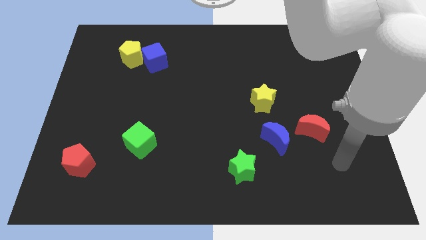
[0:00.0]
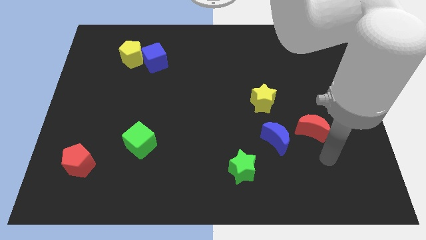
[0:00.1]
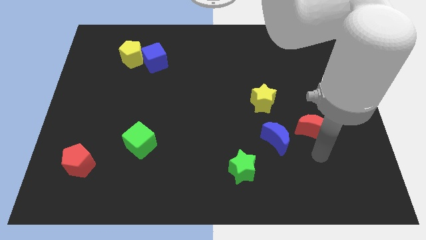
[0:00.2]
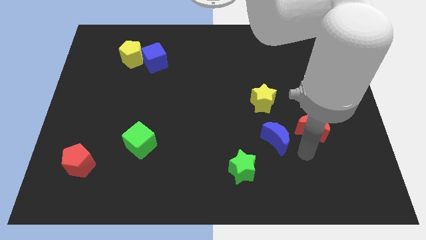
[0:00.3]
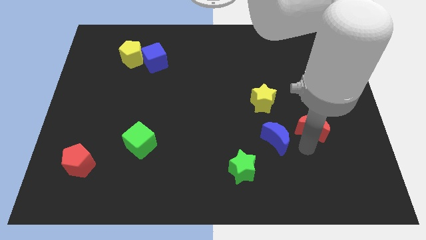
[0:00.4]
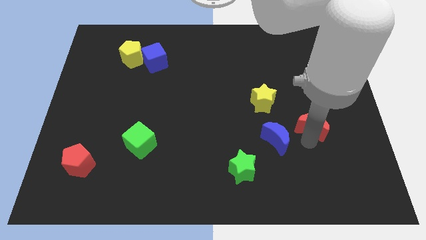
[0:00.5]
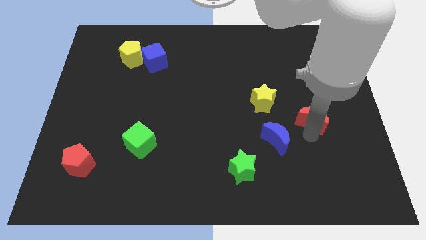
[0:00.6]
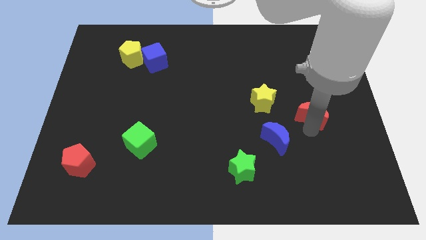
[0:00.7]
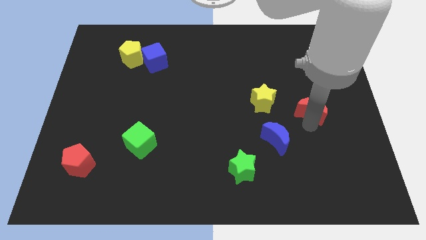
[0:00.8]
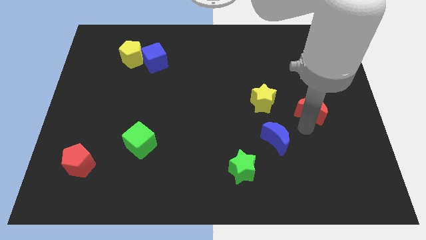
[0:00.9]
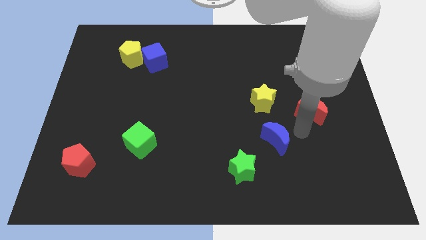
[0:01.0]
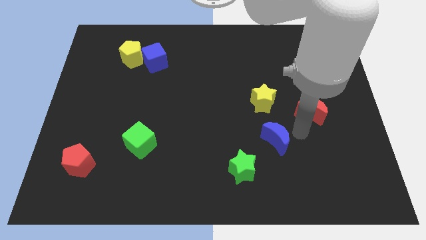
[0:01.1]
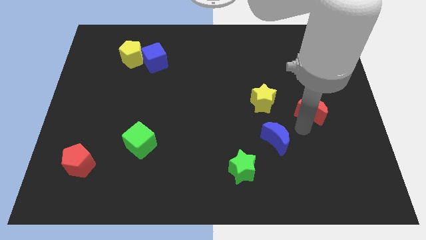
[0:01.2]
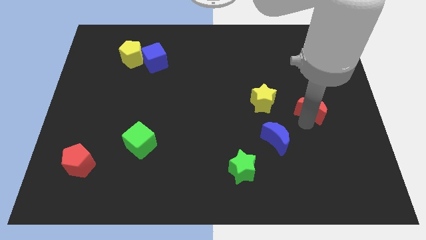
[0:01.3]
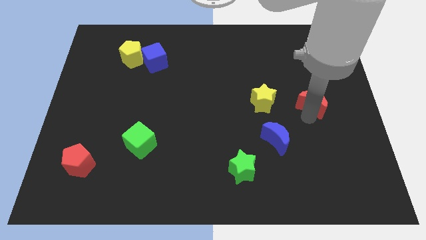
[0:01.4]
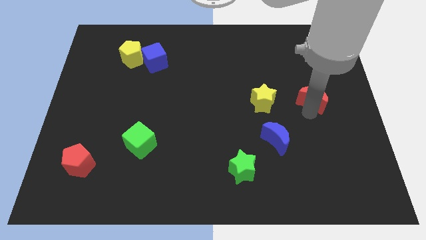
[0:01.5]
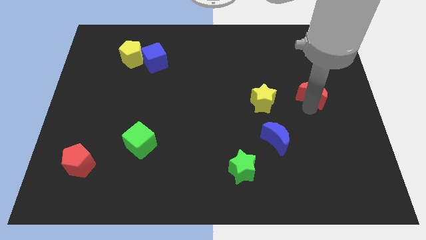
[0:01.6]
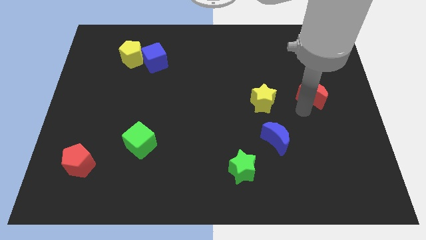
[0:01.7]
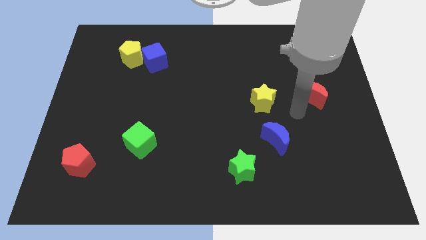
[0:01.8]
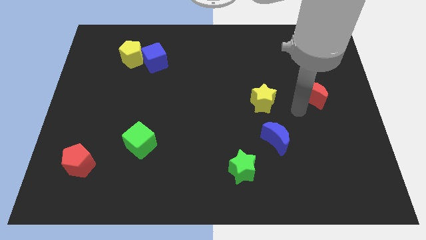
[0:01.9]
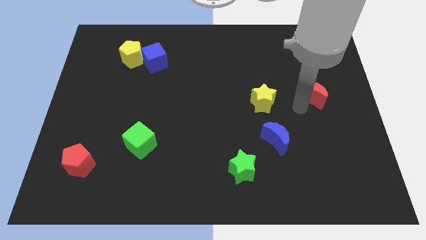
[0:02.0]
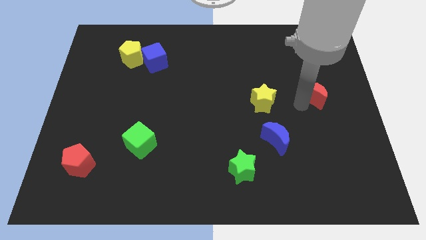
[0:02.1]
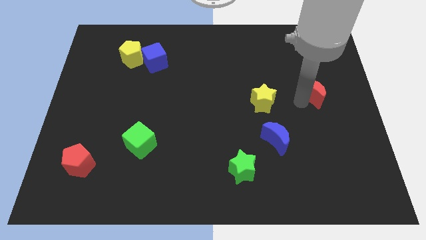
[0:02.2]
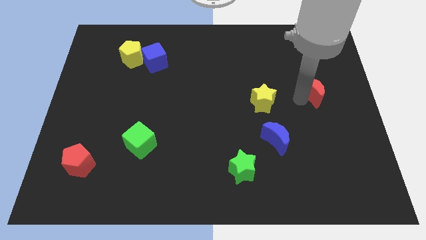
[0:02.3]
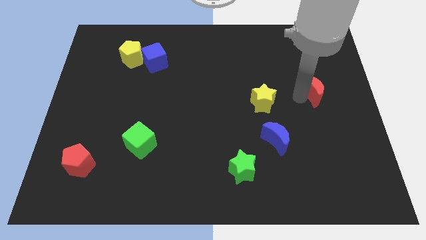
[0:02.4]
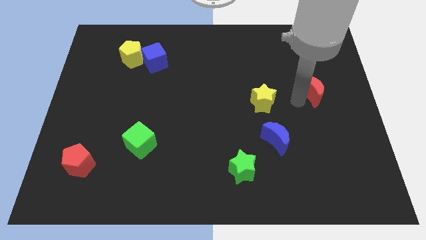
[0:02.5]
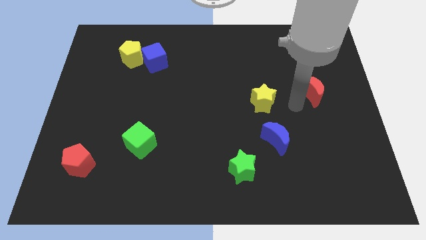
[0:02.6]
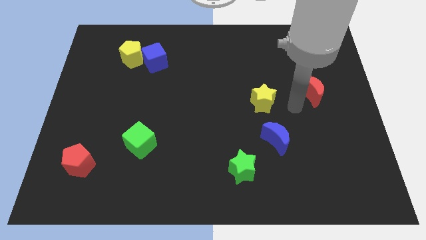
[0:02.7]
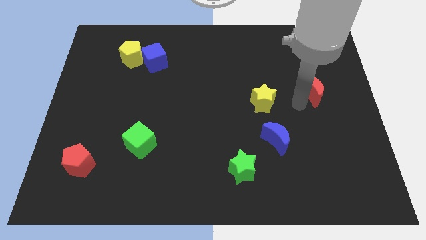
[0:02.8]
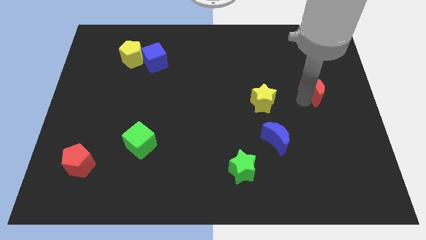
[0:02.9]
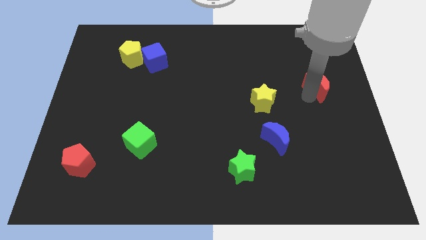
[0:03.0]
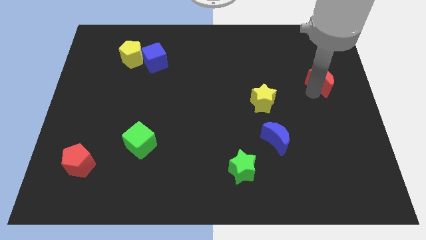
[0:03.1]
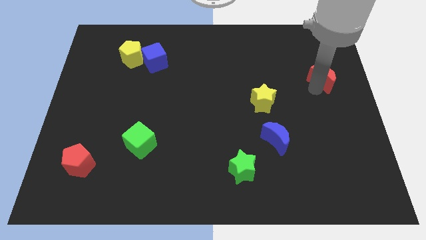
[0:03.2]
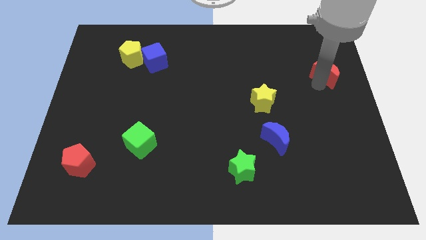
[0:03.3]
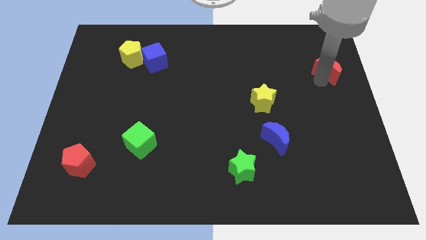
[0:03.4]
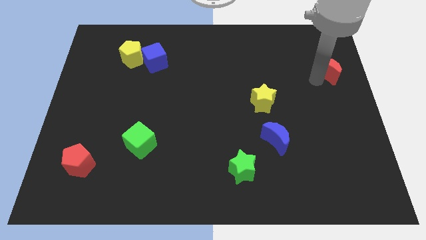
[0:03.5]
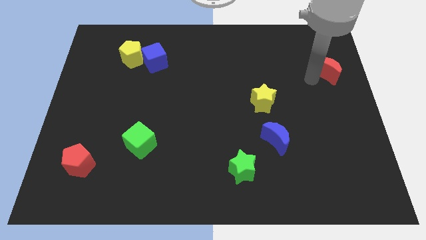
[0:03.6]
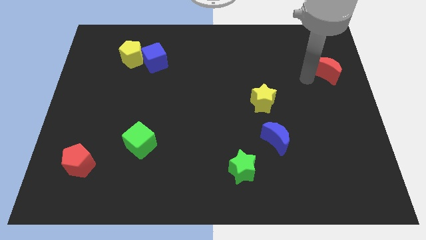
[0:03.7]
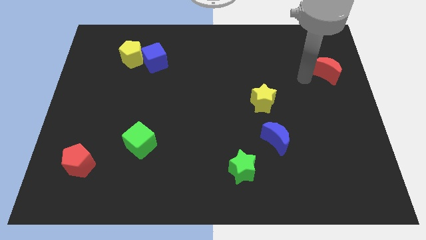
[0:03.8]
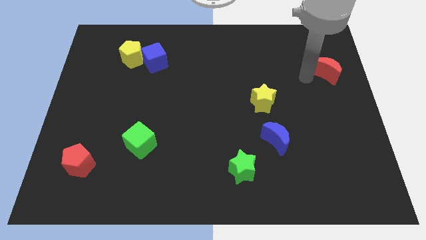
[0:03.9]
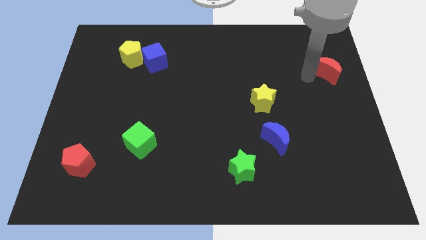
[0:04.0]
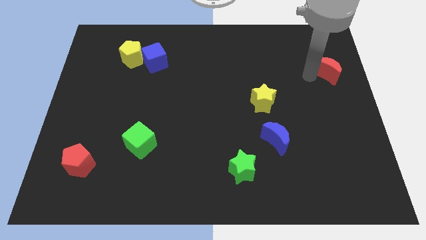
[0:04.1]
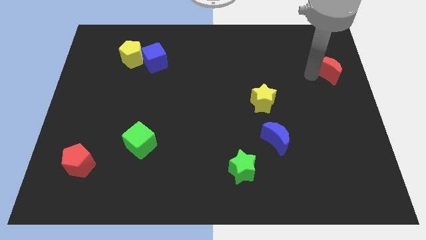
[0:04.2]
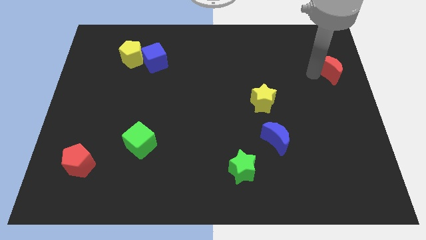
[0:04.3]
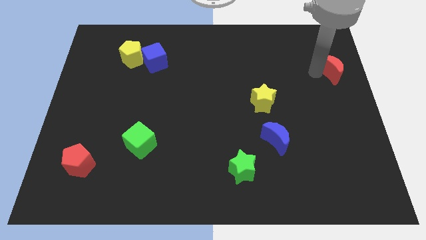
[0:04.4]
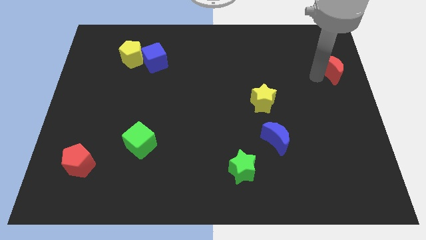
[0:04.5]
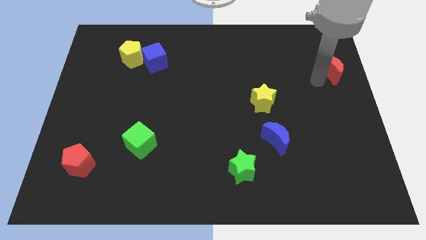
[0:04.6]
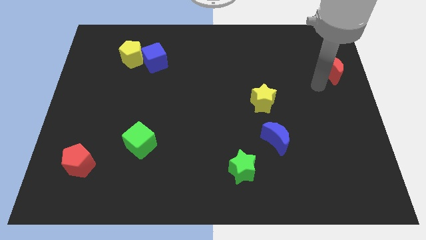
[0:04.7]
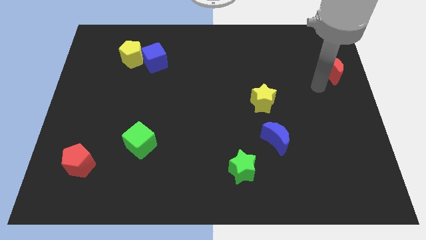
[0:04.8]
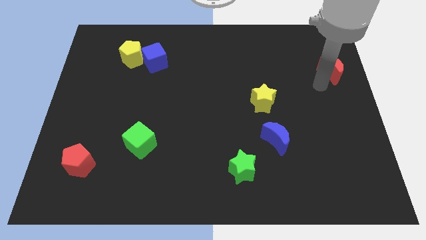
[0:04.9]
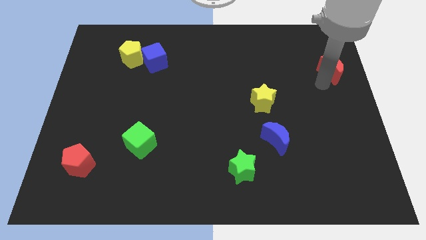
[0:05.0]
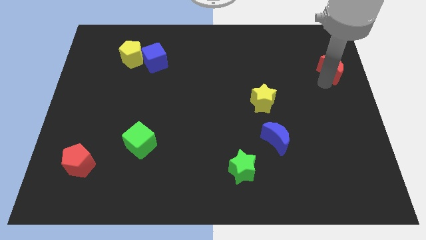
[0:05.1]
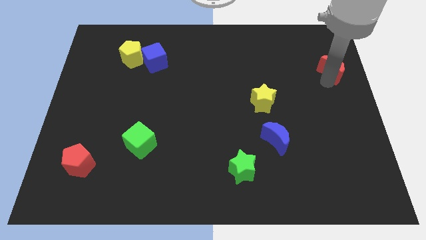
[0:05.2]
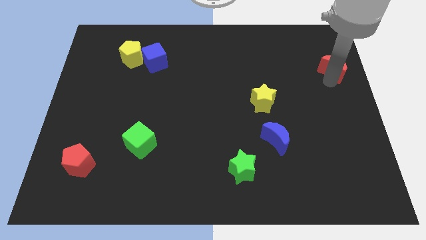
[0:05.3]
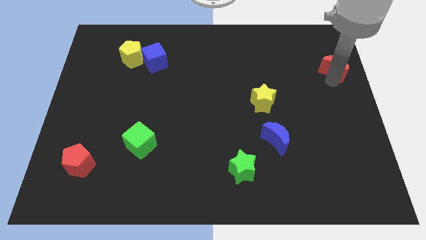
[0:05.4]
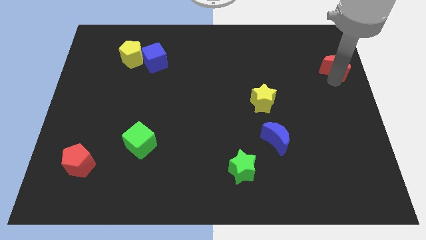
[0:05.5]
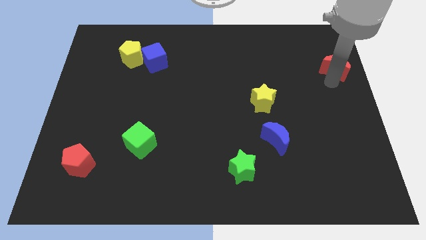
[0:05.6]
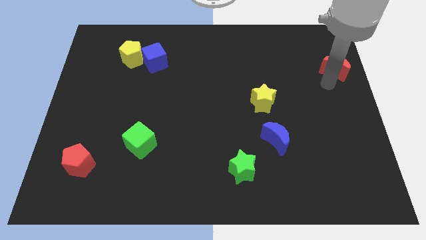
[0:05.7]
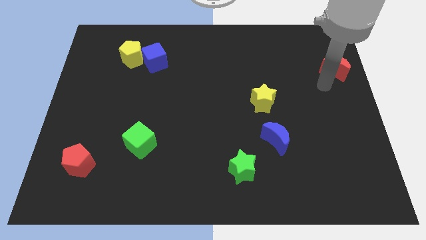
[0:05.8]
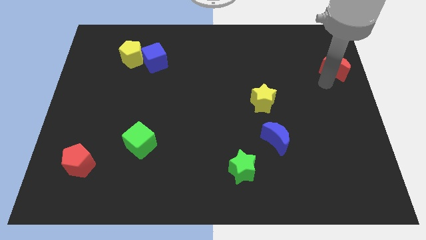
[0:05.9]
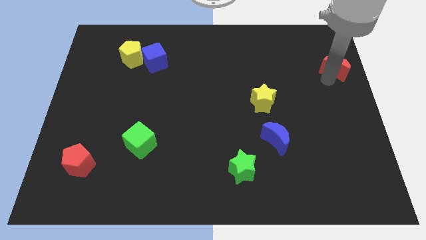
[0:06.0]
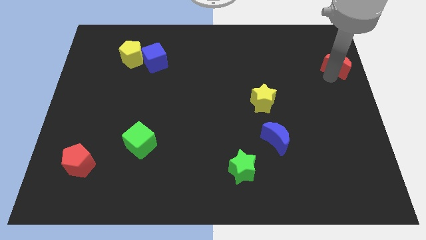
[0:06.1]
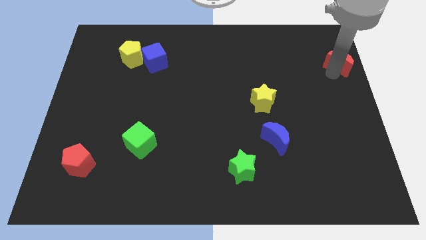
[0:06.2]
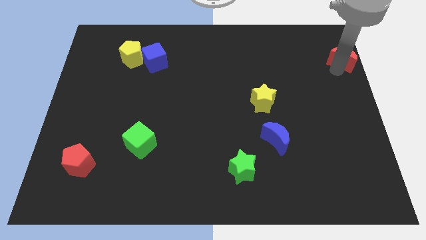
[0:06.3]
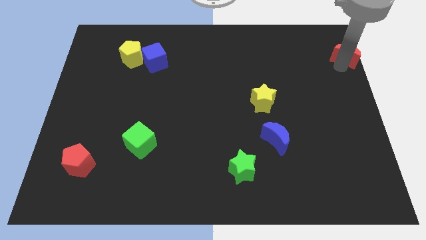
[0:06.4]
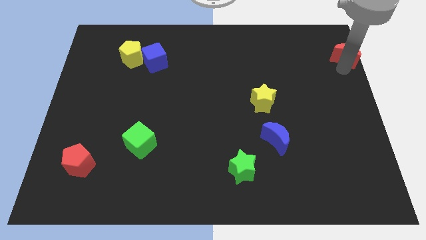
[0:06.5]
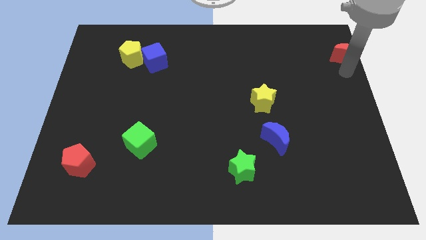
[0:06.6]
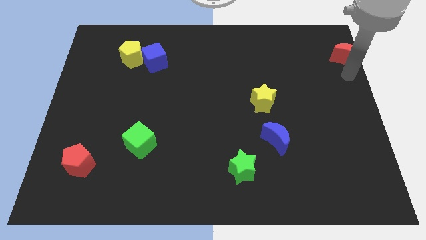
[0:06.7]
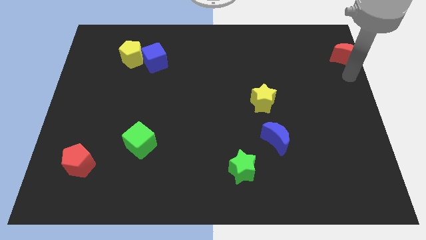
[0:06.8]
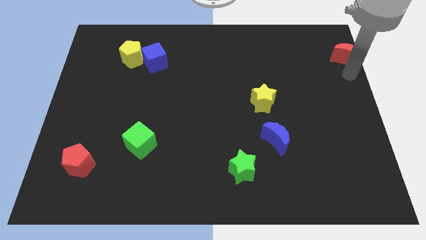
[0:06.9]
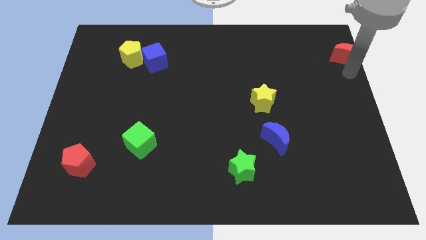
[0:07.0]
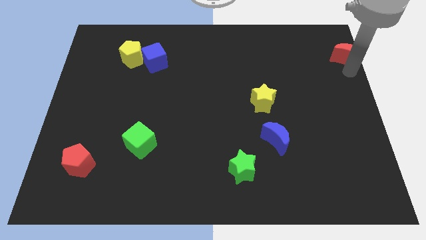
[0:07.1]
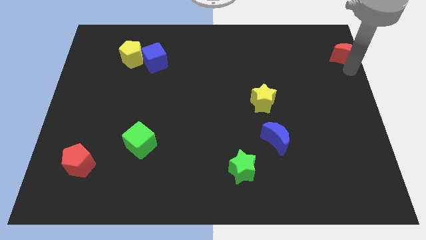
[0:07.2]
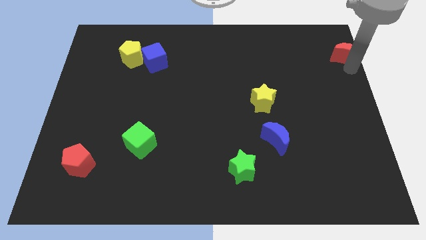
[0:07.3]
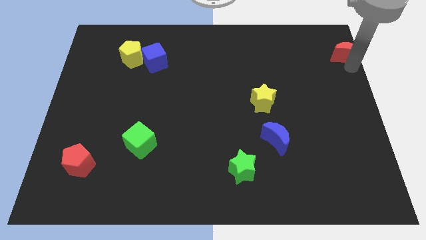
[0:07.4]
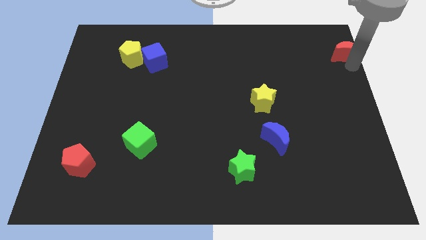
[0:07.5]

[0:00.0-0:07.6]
put the red moon to the top right corner
